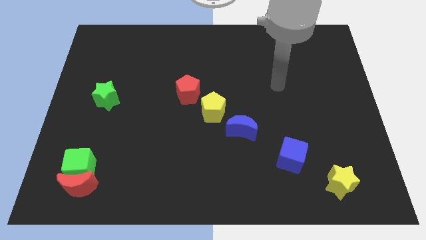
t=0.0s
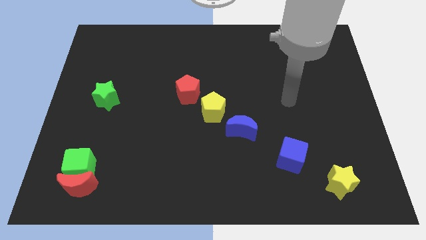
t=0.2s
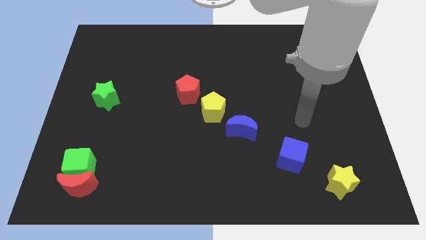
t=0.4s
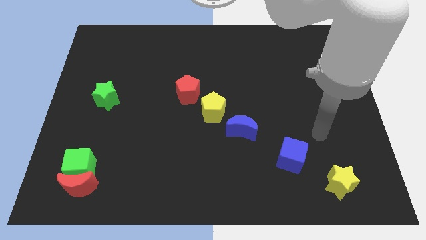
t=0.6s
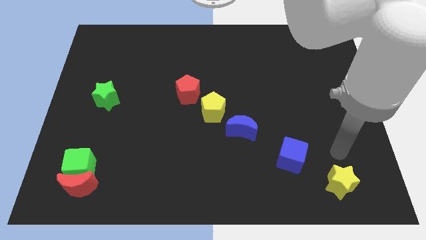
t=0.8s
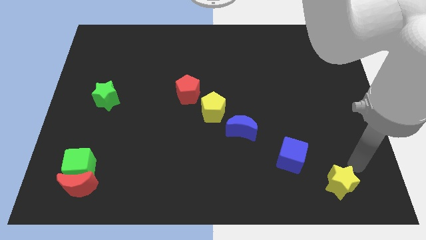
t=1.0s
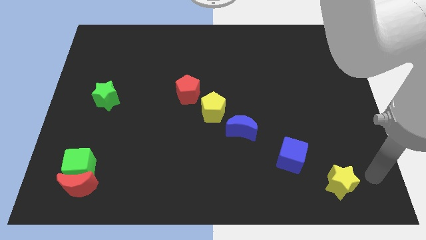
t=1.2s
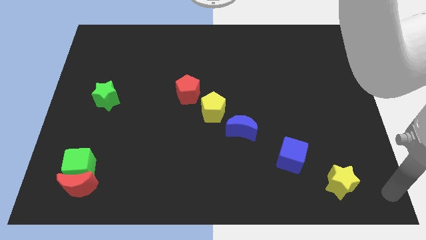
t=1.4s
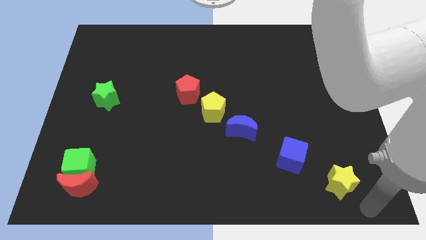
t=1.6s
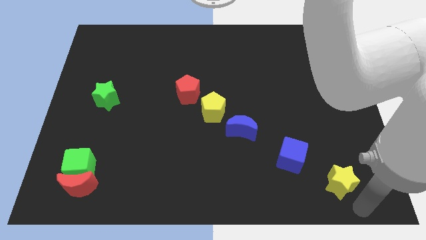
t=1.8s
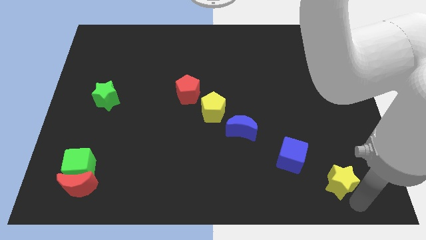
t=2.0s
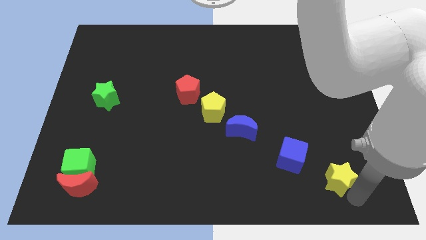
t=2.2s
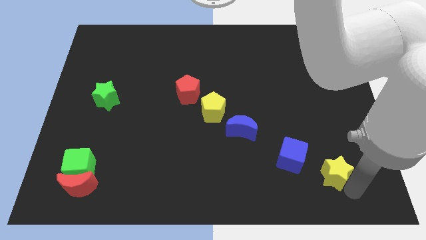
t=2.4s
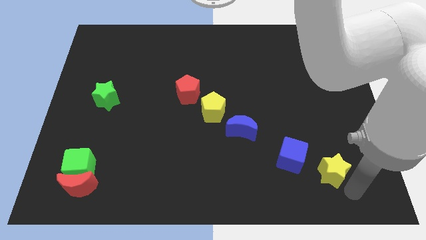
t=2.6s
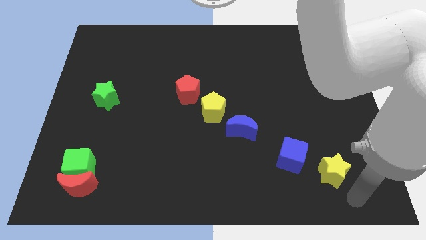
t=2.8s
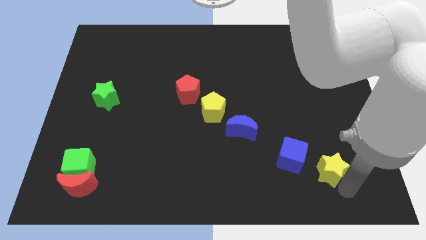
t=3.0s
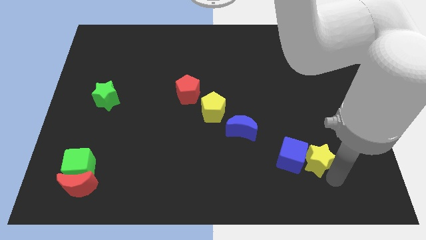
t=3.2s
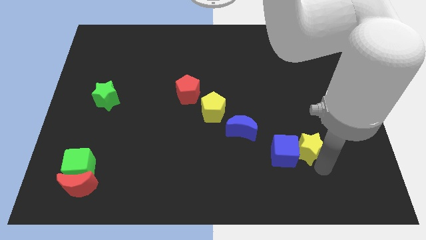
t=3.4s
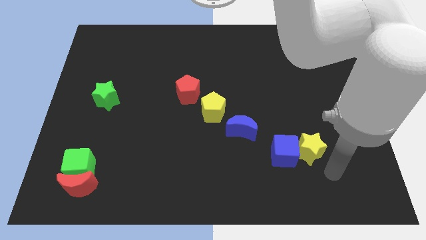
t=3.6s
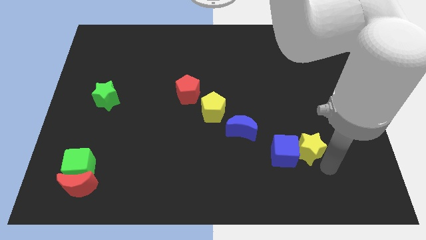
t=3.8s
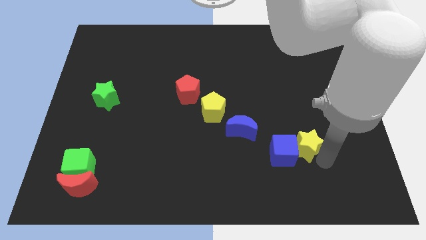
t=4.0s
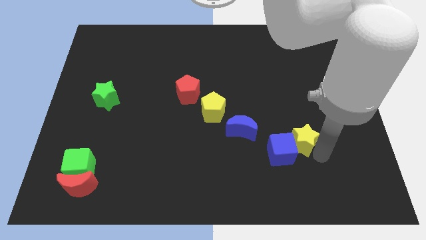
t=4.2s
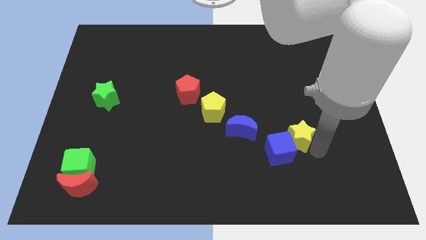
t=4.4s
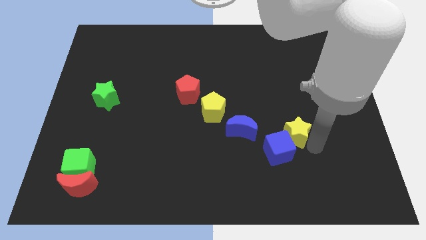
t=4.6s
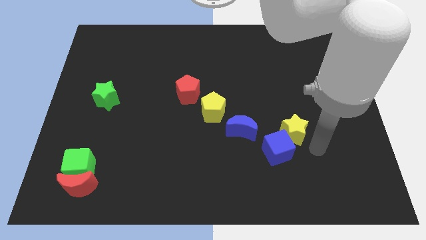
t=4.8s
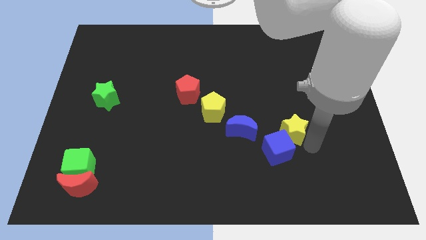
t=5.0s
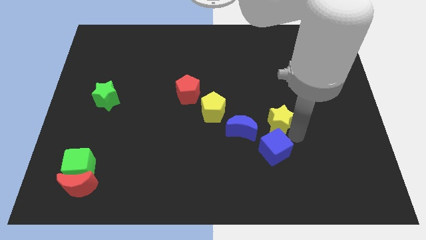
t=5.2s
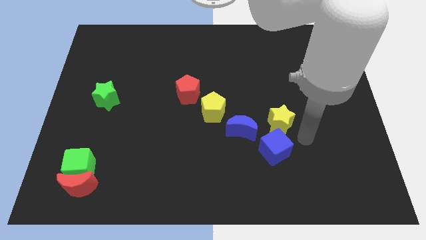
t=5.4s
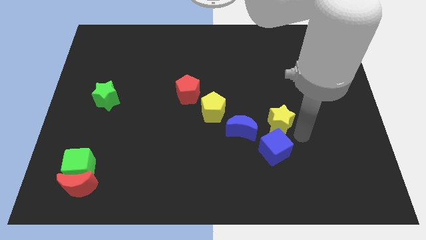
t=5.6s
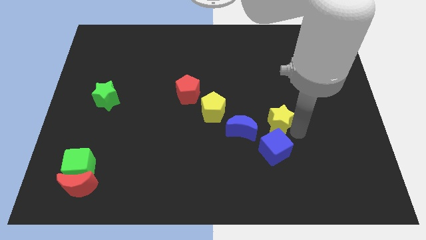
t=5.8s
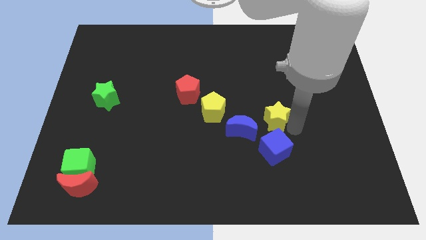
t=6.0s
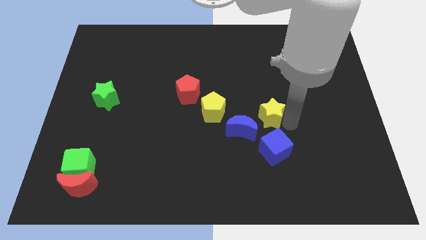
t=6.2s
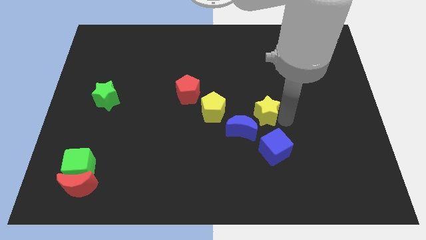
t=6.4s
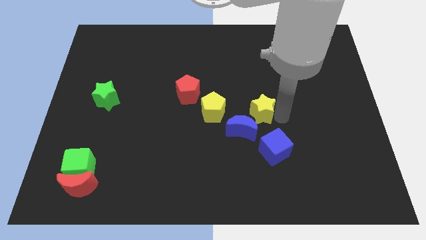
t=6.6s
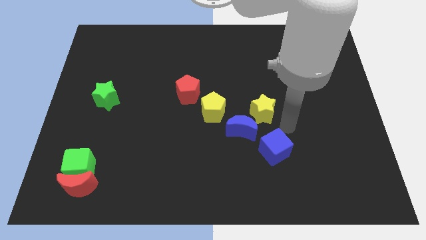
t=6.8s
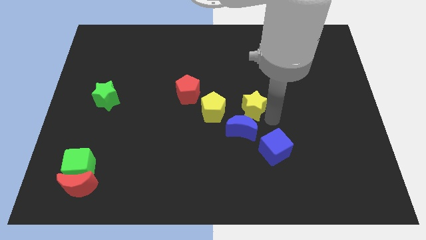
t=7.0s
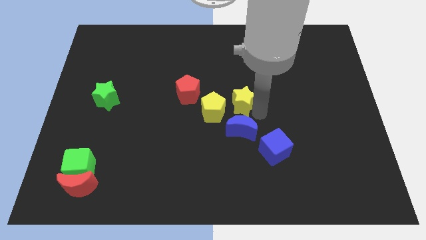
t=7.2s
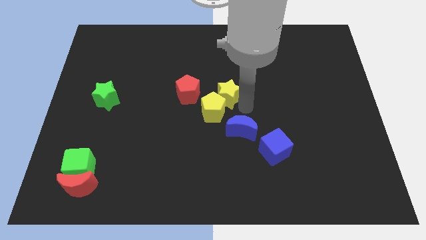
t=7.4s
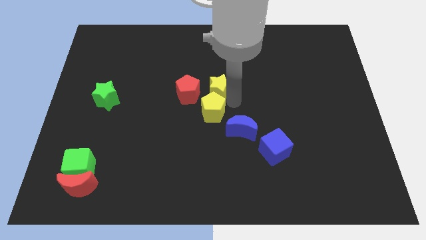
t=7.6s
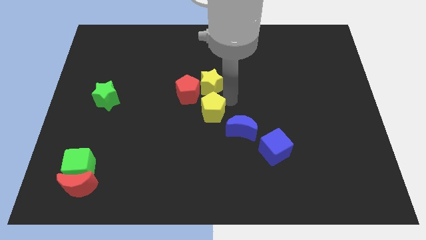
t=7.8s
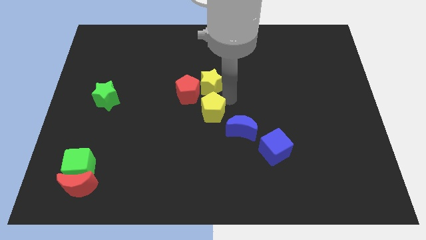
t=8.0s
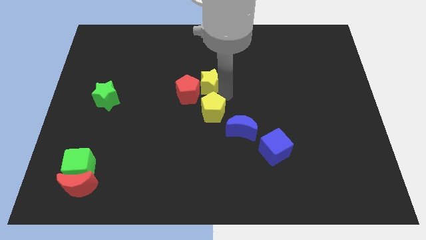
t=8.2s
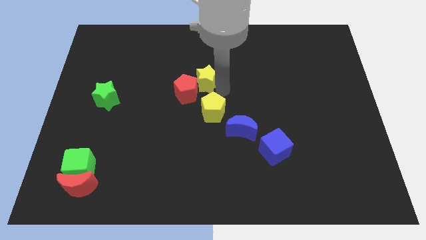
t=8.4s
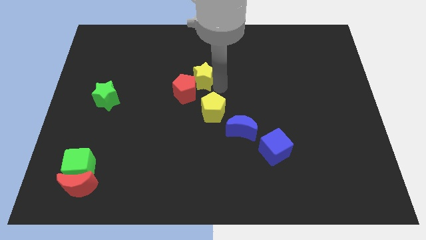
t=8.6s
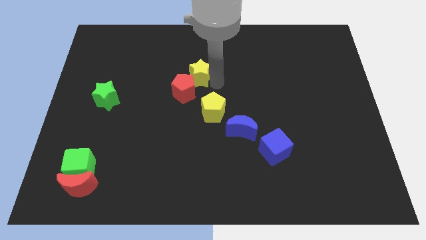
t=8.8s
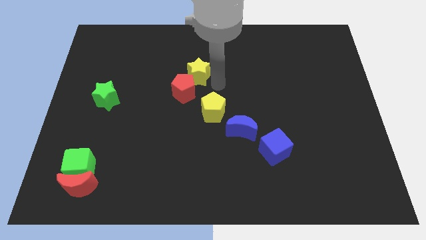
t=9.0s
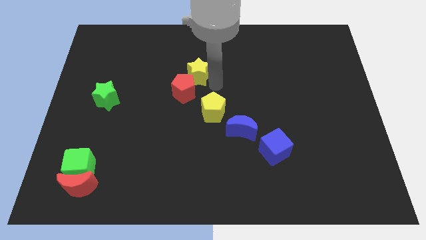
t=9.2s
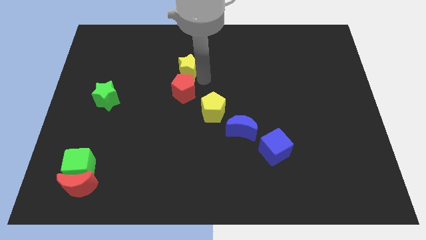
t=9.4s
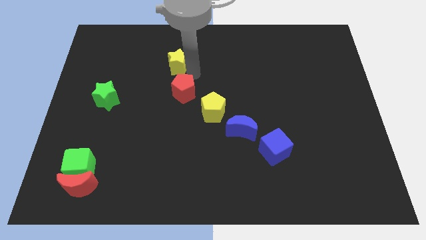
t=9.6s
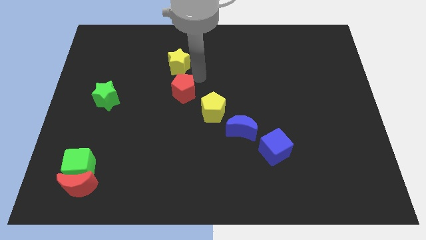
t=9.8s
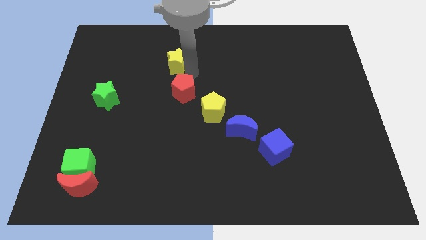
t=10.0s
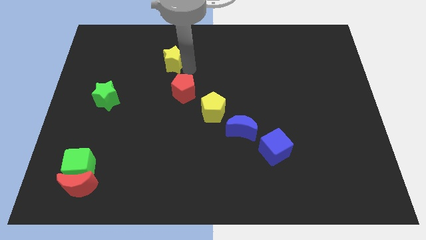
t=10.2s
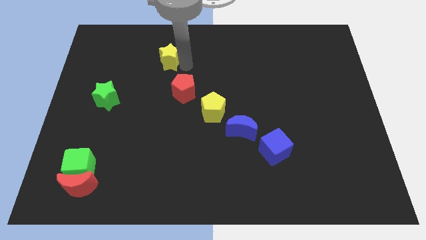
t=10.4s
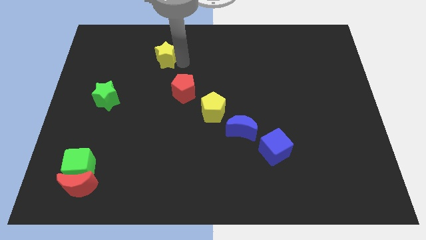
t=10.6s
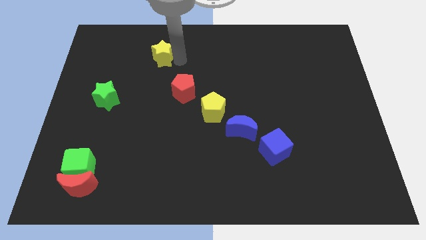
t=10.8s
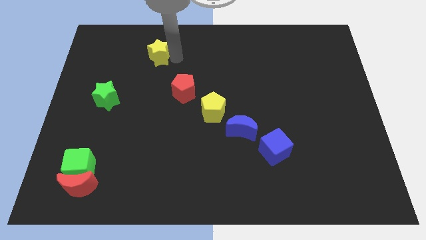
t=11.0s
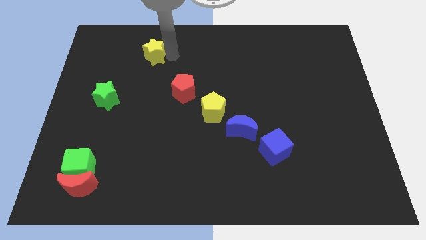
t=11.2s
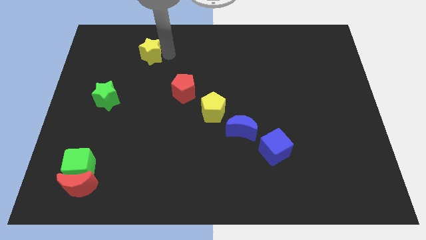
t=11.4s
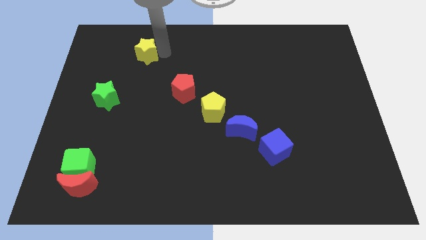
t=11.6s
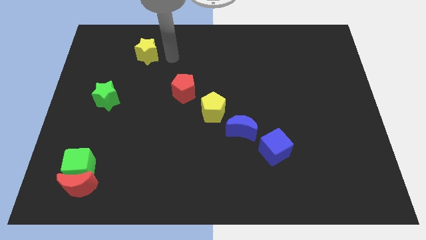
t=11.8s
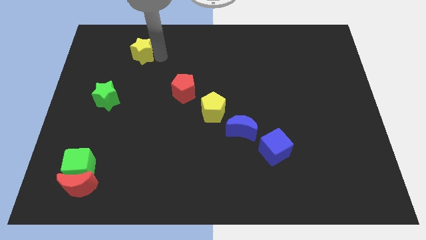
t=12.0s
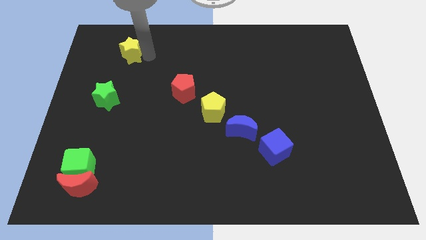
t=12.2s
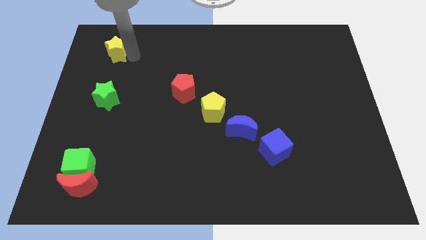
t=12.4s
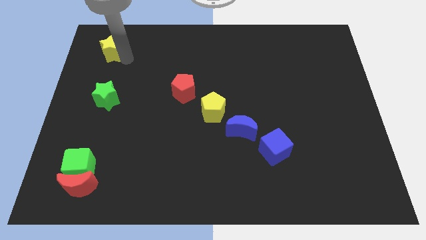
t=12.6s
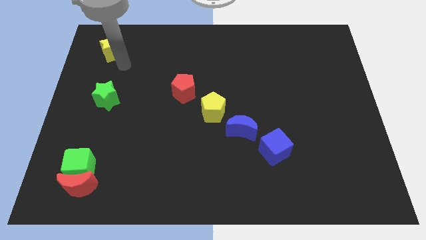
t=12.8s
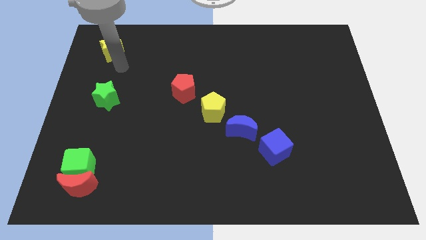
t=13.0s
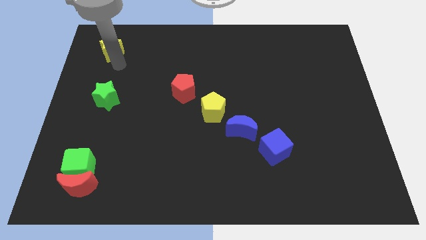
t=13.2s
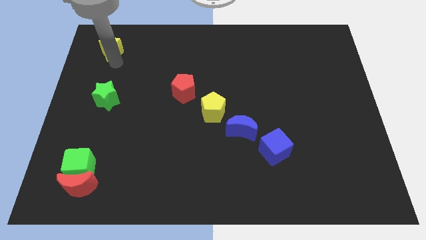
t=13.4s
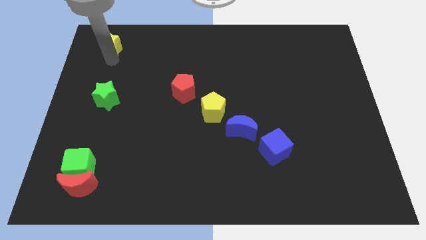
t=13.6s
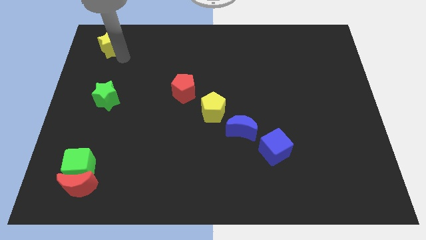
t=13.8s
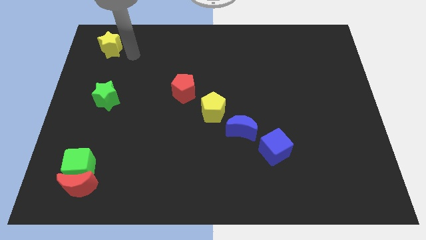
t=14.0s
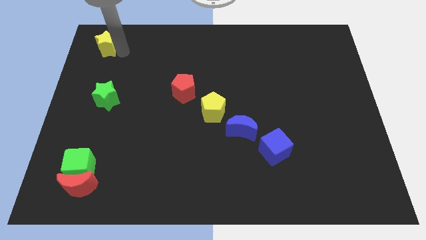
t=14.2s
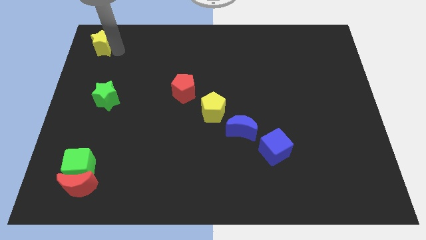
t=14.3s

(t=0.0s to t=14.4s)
put the yellow star to the top left of the board
